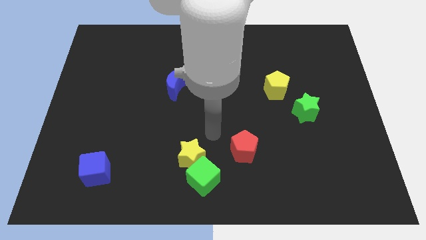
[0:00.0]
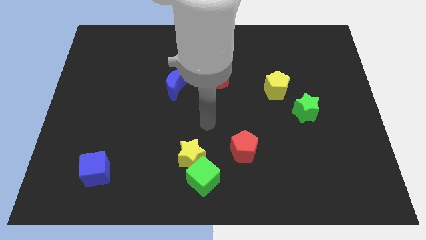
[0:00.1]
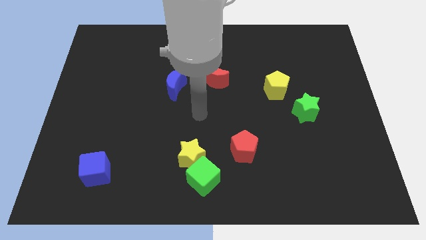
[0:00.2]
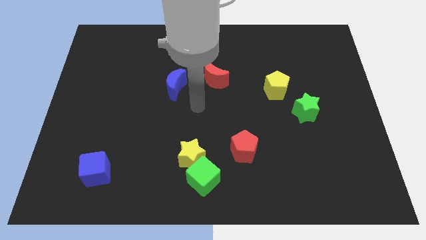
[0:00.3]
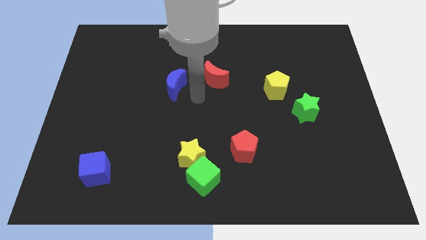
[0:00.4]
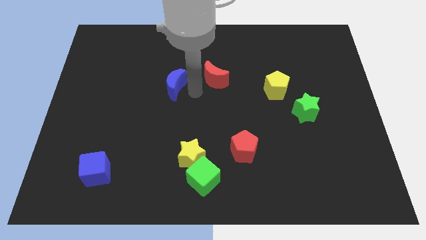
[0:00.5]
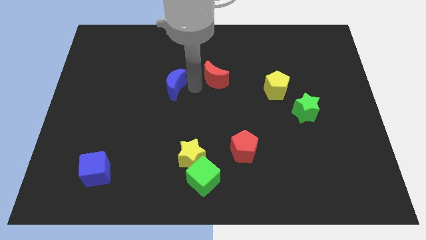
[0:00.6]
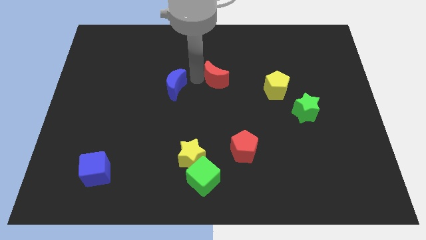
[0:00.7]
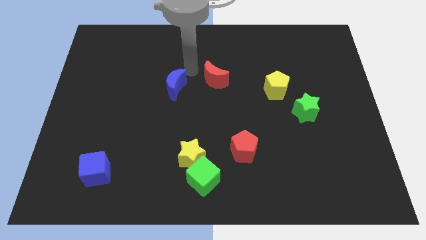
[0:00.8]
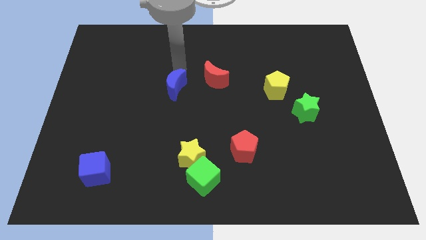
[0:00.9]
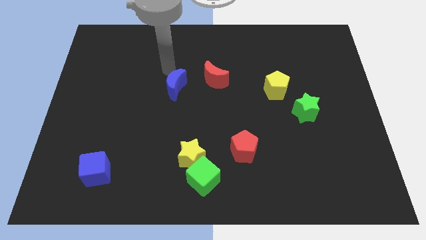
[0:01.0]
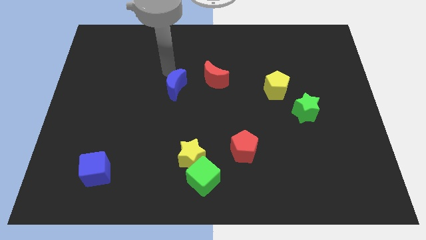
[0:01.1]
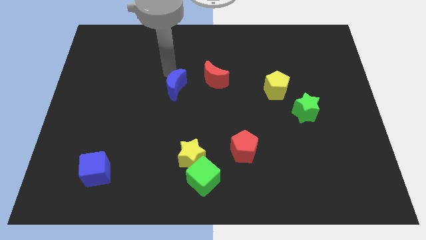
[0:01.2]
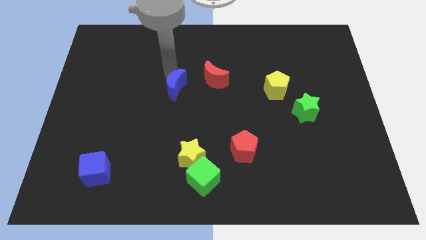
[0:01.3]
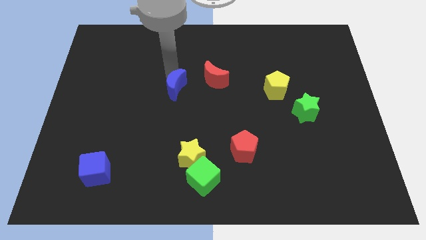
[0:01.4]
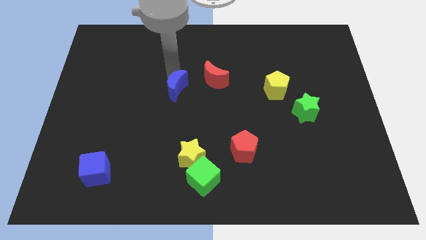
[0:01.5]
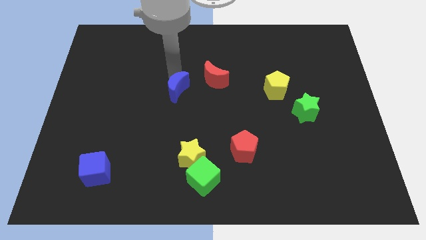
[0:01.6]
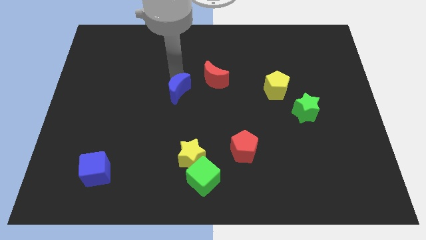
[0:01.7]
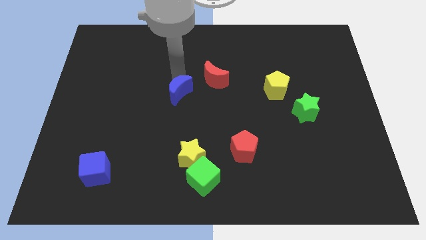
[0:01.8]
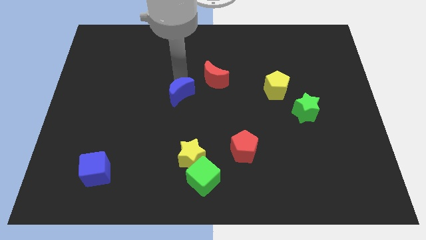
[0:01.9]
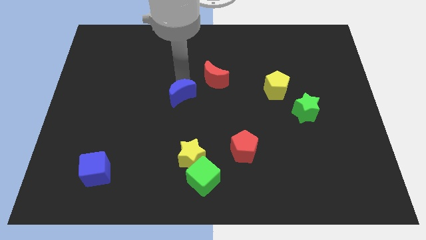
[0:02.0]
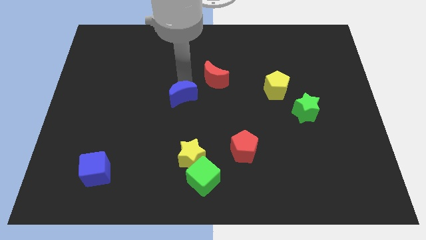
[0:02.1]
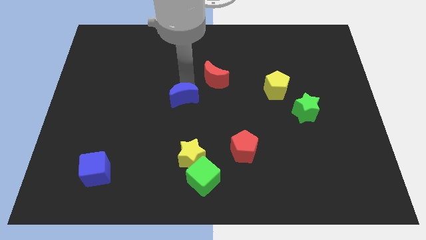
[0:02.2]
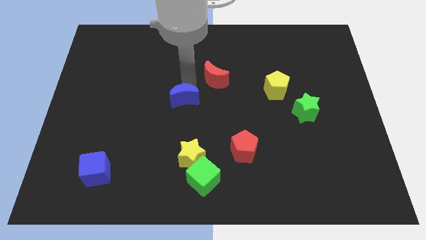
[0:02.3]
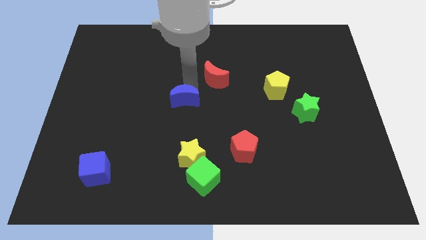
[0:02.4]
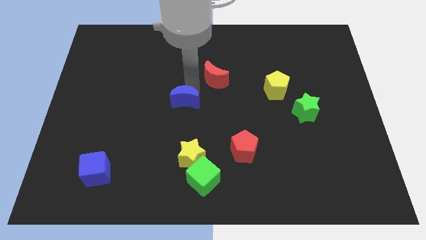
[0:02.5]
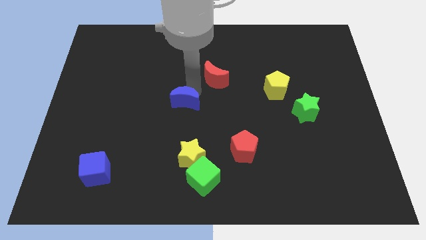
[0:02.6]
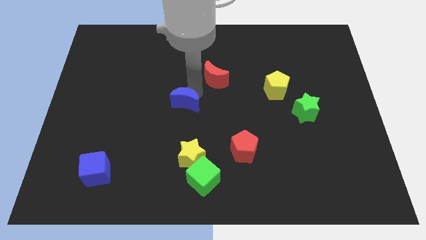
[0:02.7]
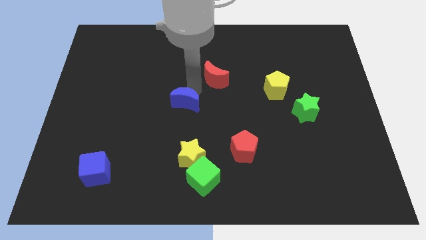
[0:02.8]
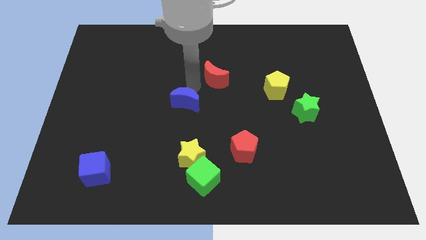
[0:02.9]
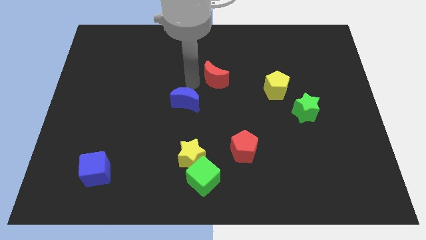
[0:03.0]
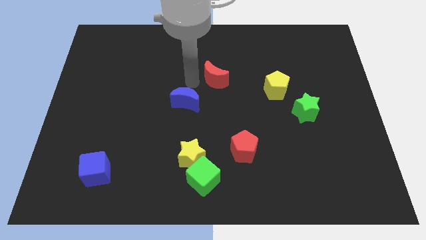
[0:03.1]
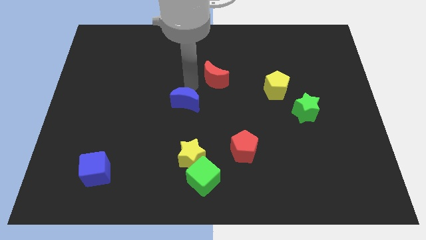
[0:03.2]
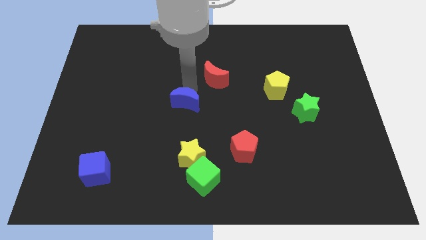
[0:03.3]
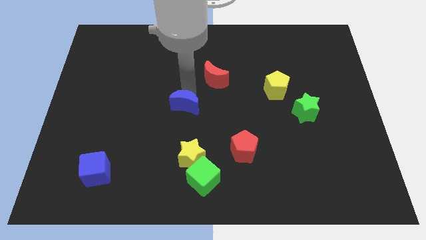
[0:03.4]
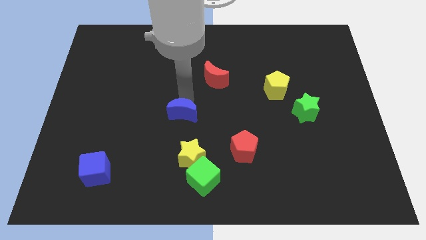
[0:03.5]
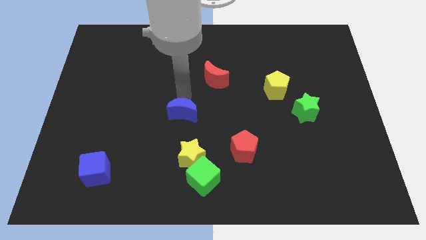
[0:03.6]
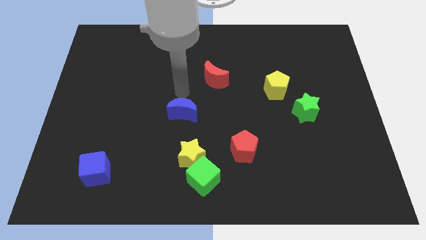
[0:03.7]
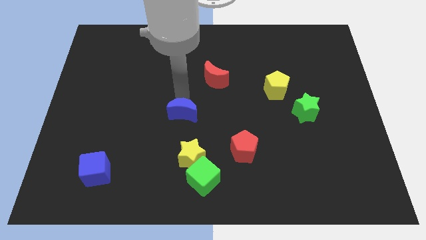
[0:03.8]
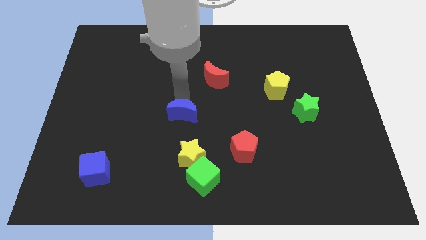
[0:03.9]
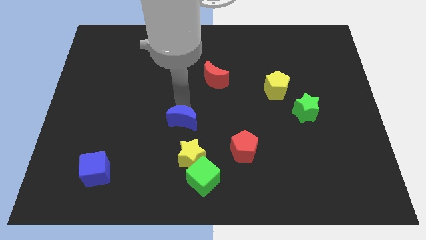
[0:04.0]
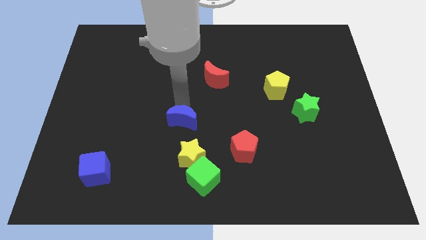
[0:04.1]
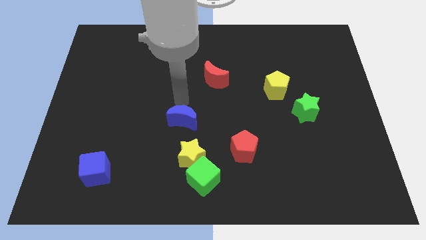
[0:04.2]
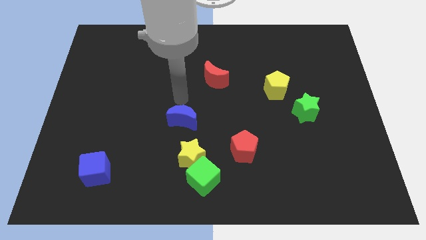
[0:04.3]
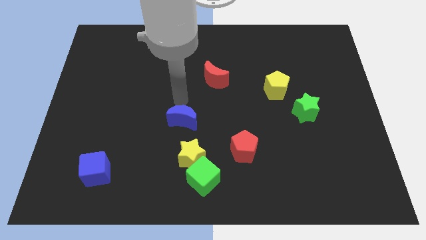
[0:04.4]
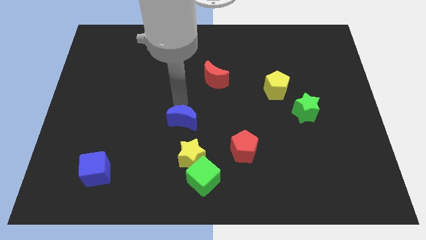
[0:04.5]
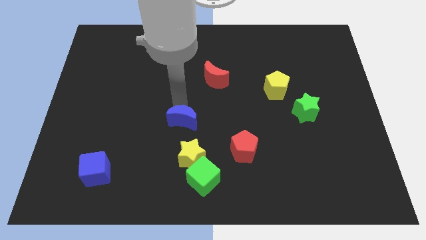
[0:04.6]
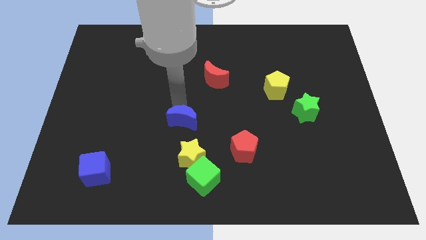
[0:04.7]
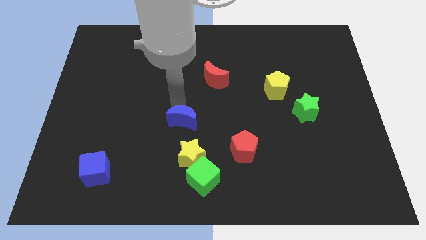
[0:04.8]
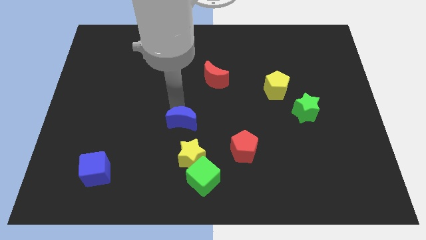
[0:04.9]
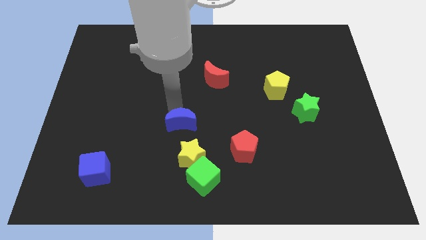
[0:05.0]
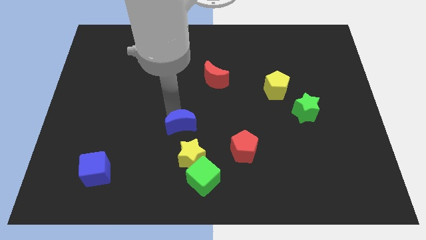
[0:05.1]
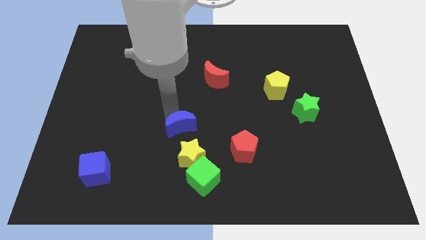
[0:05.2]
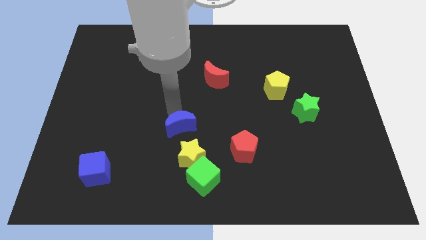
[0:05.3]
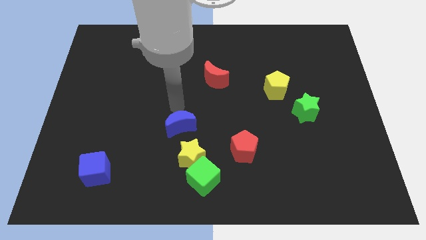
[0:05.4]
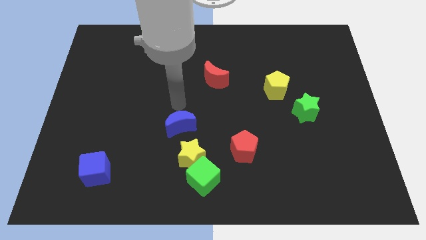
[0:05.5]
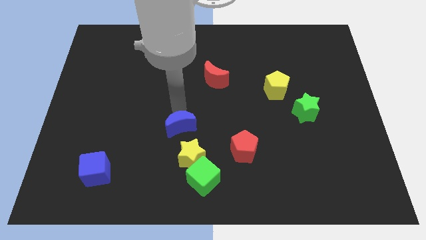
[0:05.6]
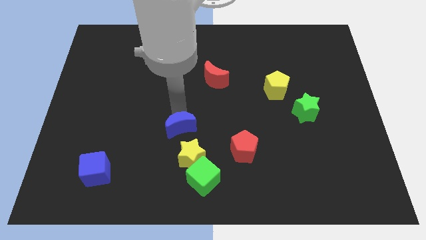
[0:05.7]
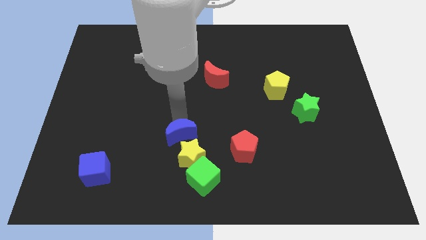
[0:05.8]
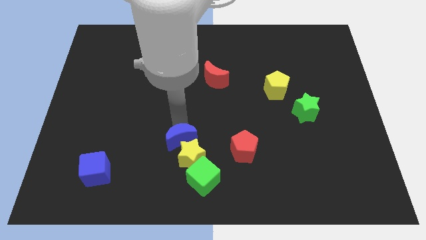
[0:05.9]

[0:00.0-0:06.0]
slide the blue moon close to the yellow star

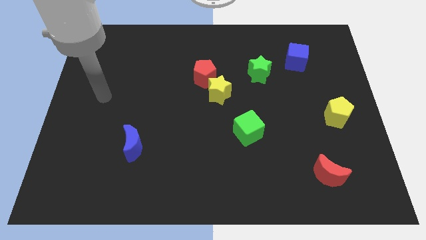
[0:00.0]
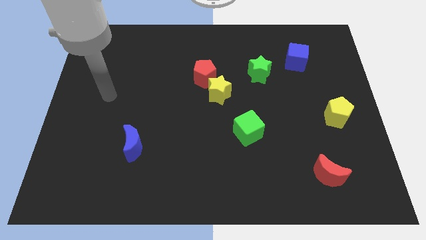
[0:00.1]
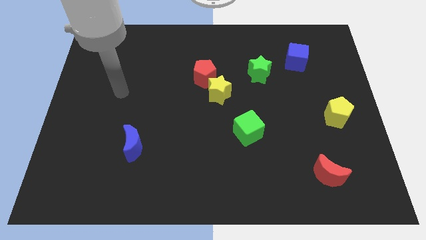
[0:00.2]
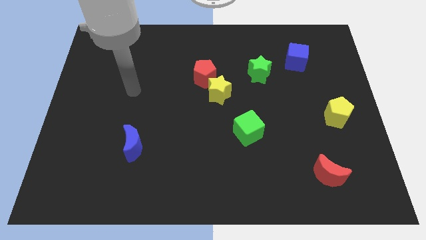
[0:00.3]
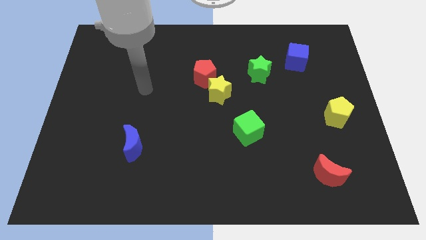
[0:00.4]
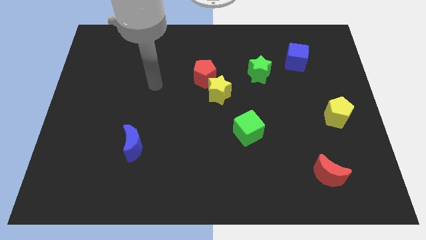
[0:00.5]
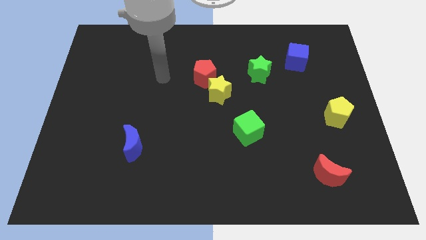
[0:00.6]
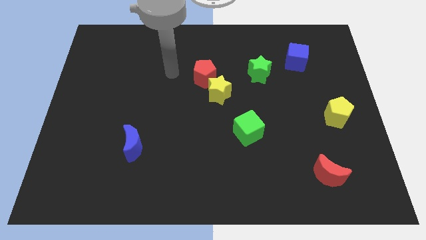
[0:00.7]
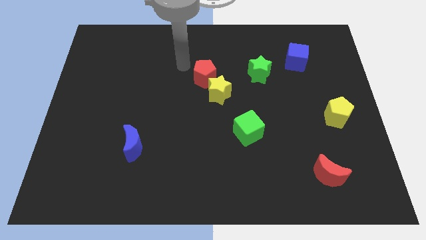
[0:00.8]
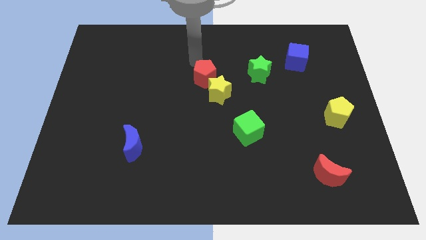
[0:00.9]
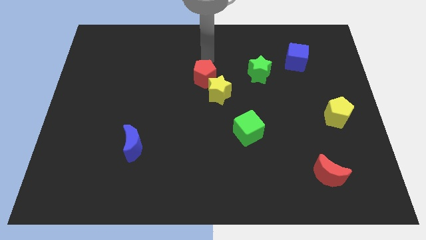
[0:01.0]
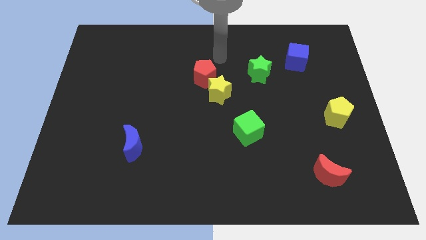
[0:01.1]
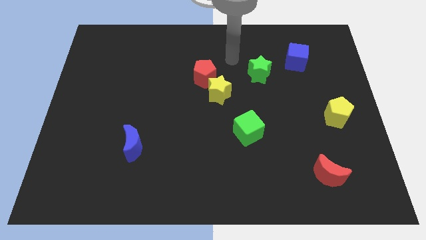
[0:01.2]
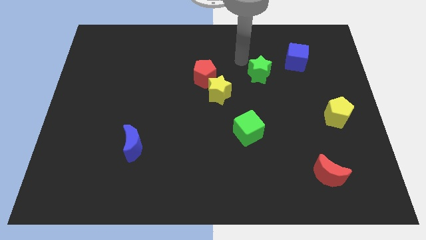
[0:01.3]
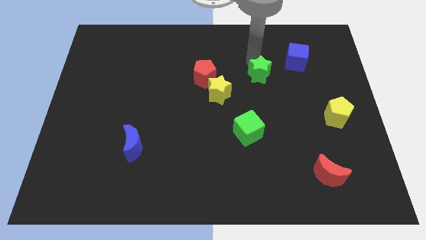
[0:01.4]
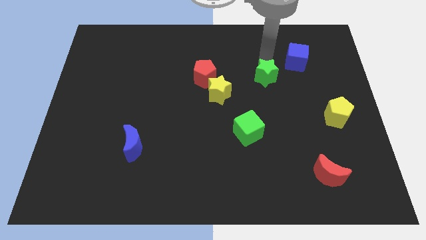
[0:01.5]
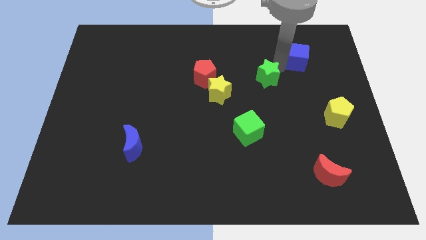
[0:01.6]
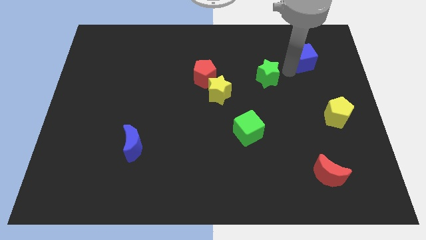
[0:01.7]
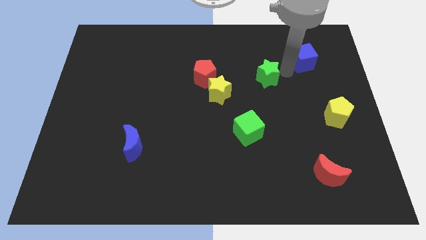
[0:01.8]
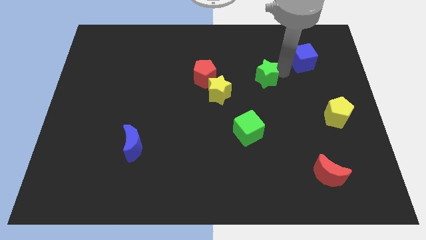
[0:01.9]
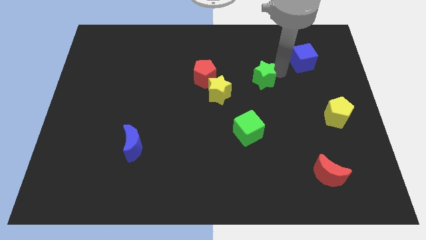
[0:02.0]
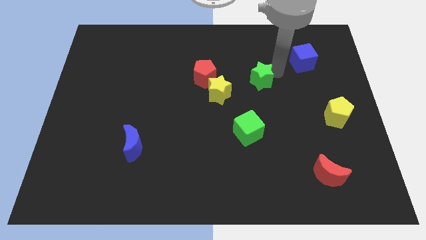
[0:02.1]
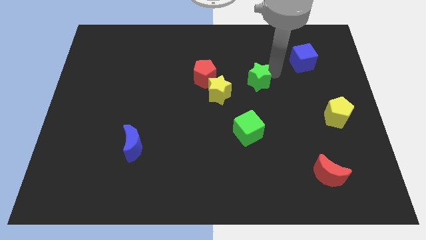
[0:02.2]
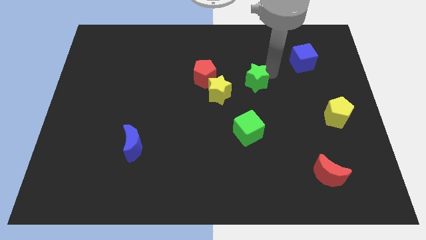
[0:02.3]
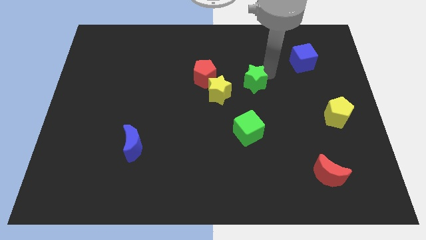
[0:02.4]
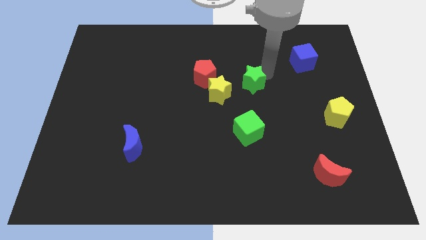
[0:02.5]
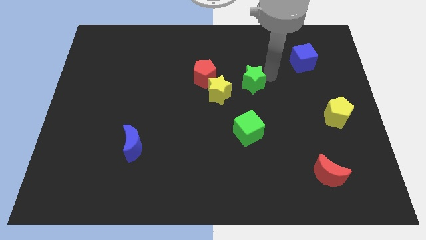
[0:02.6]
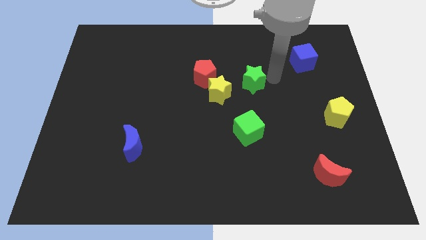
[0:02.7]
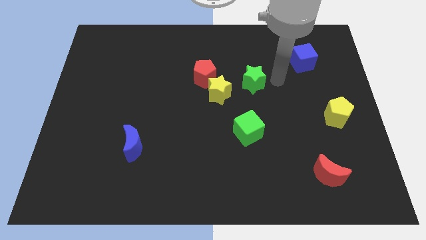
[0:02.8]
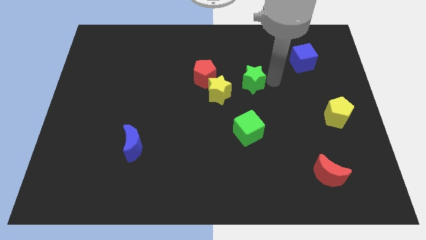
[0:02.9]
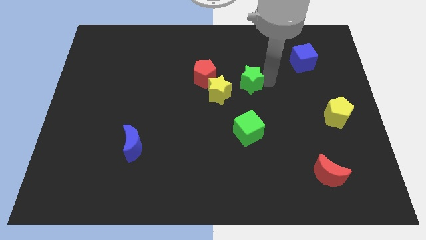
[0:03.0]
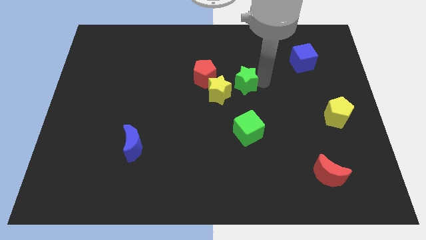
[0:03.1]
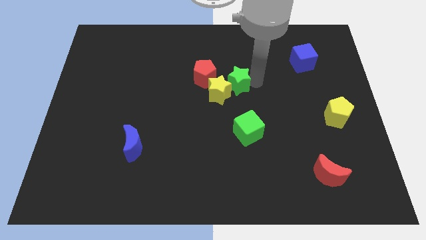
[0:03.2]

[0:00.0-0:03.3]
slide the green star towards the yellow star
